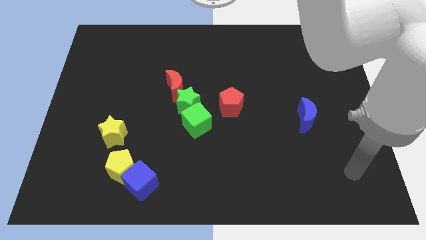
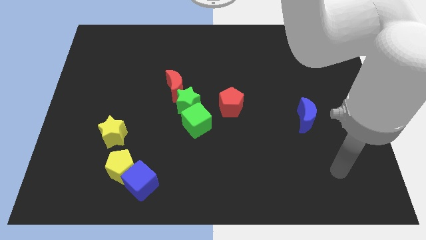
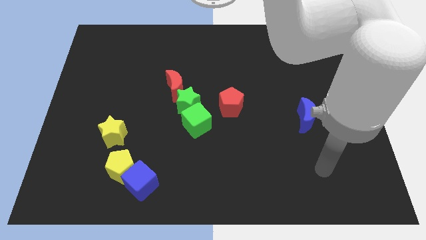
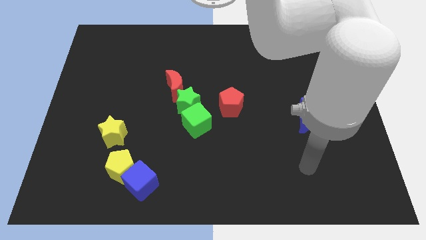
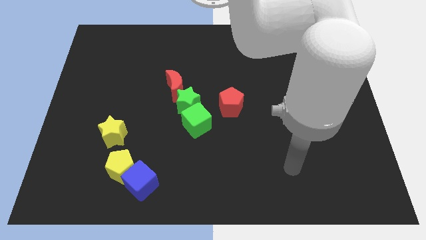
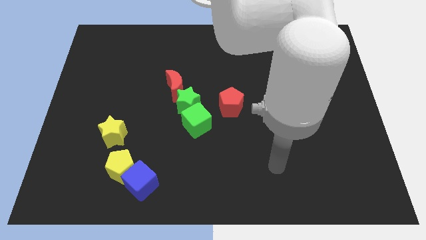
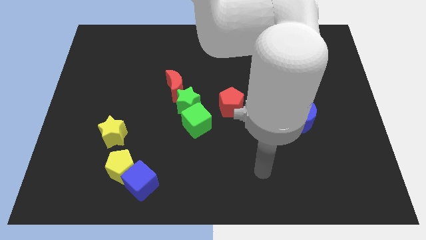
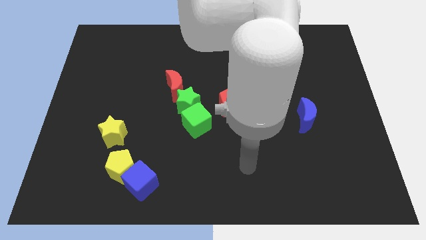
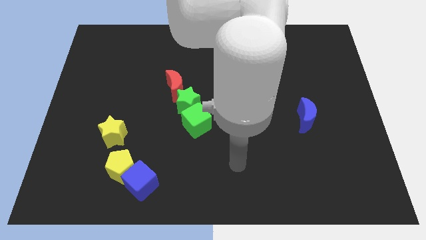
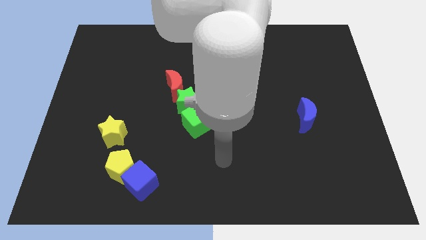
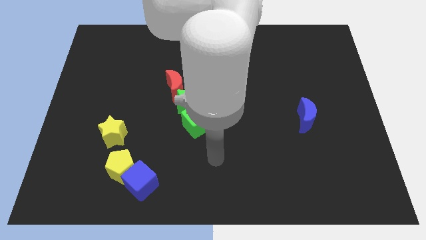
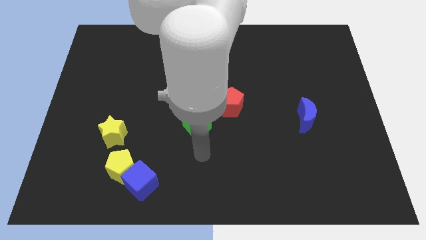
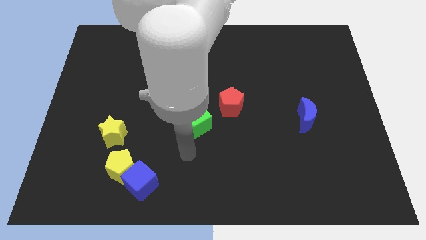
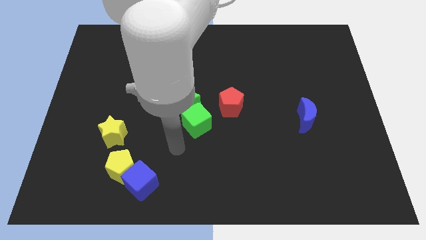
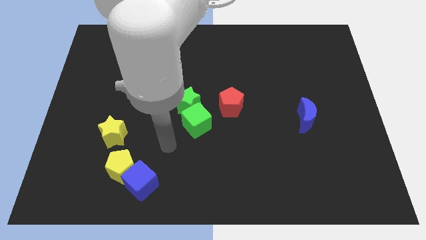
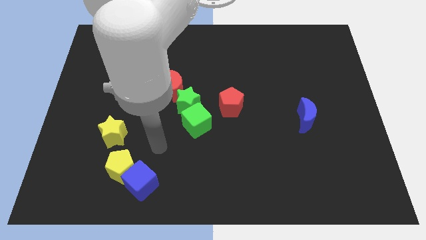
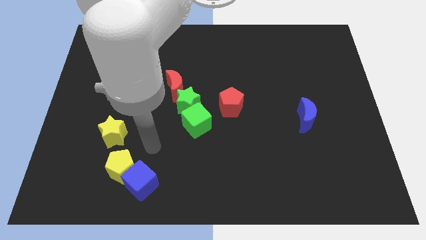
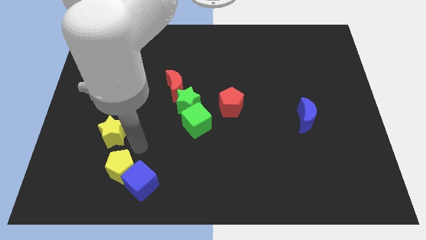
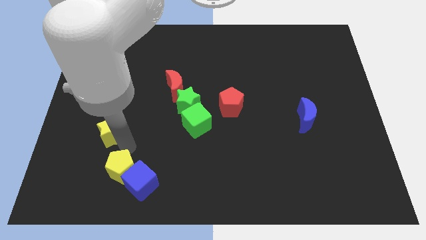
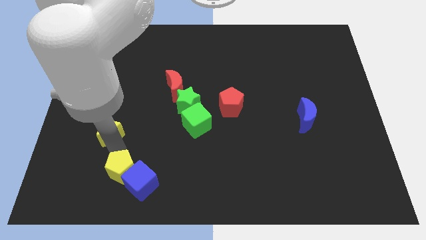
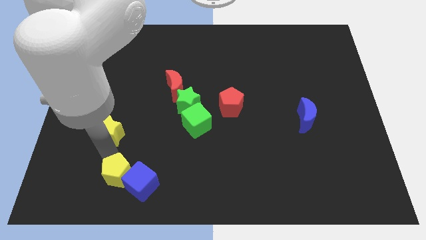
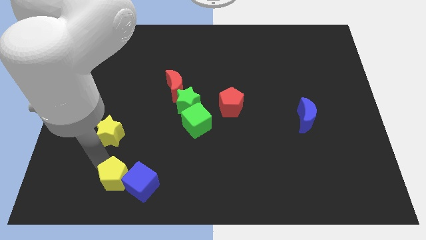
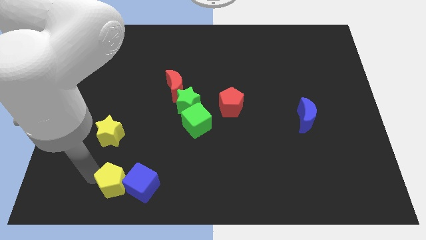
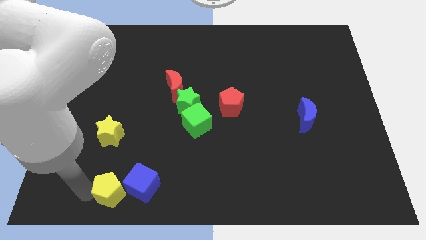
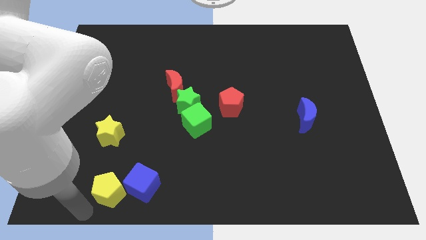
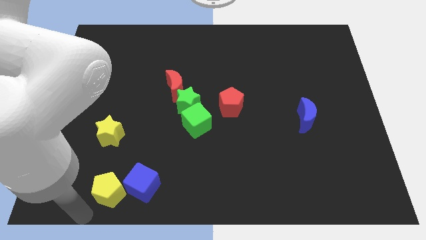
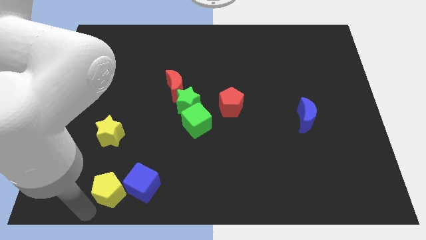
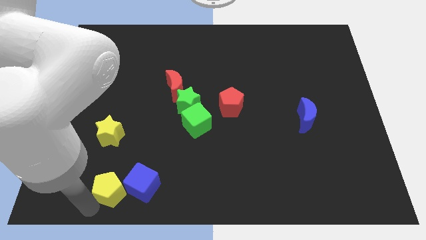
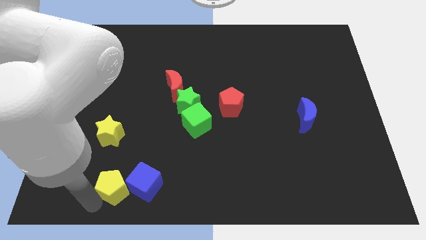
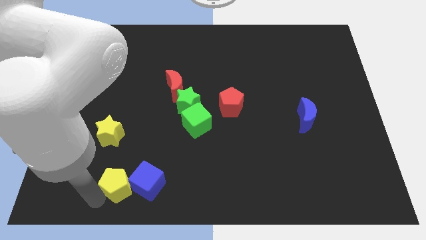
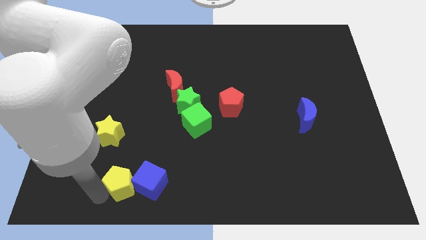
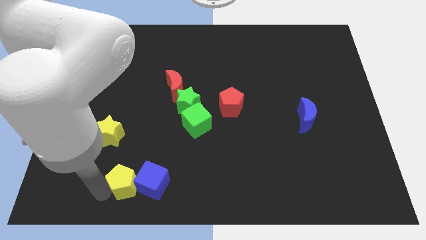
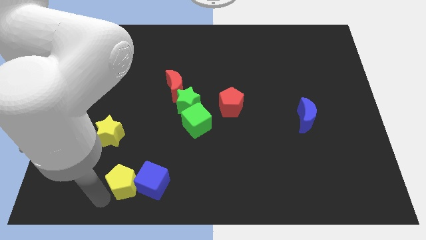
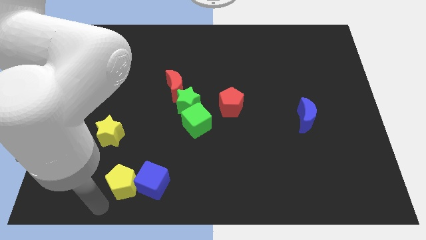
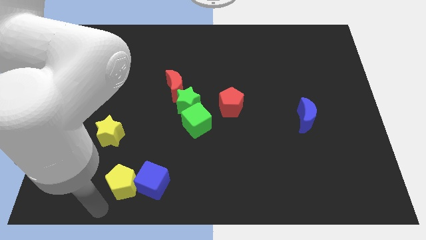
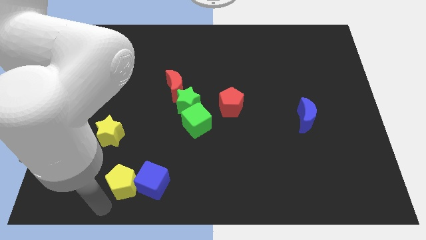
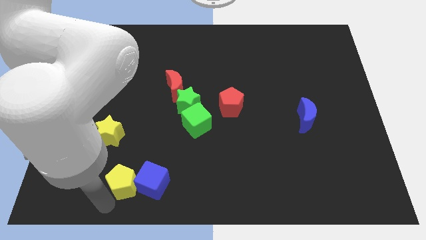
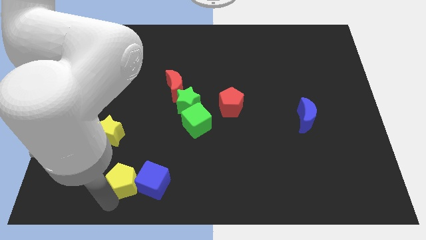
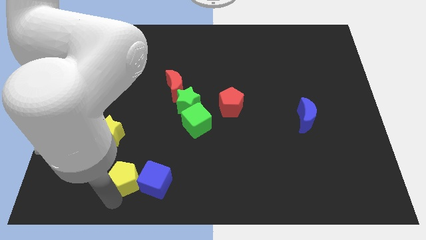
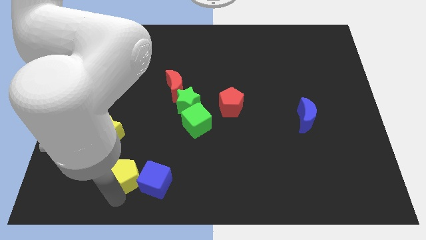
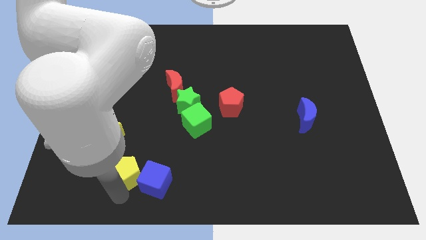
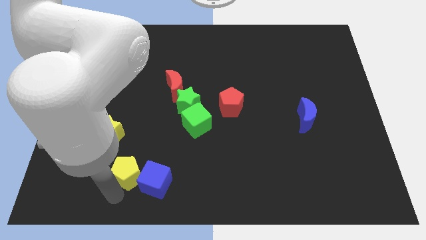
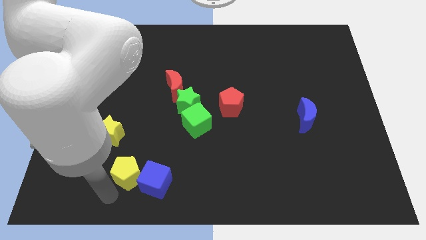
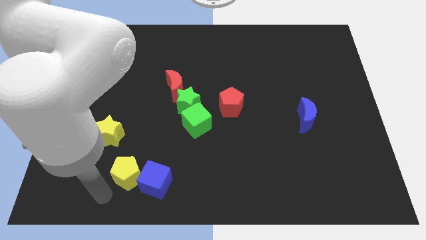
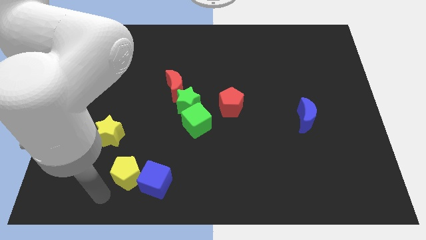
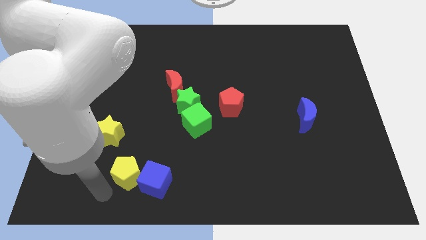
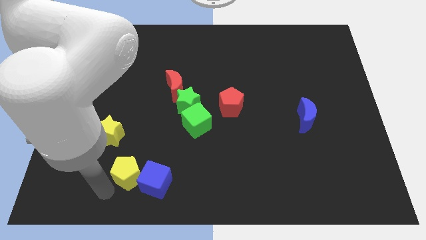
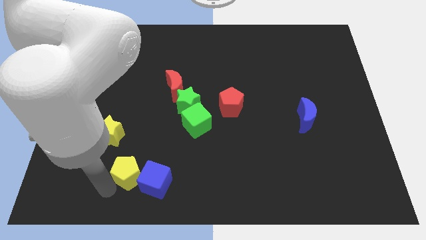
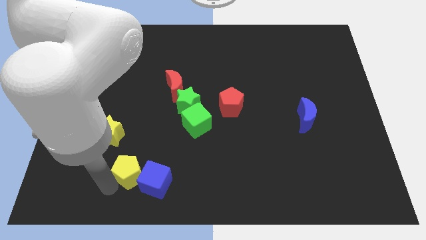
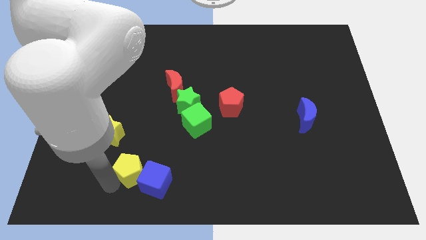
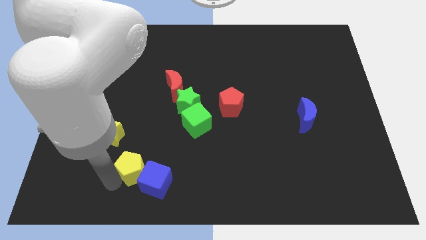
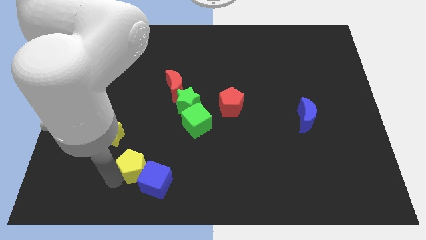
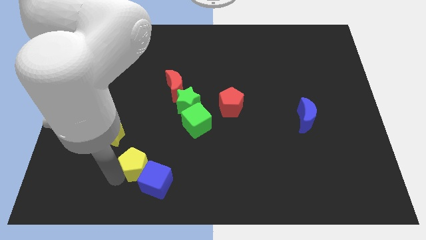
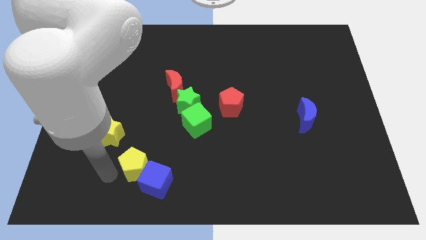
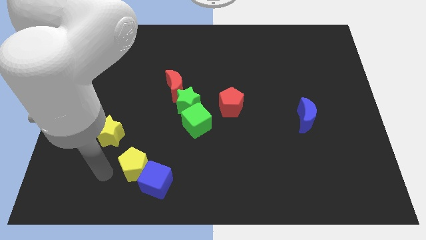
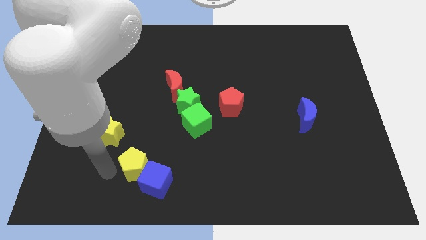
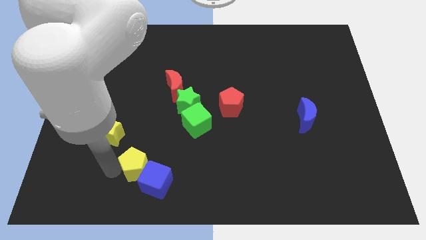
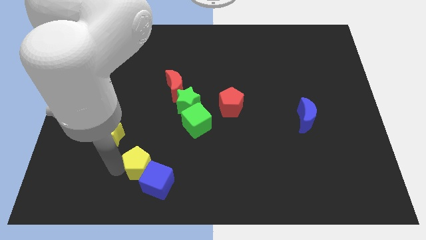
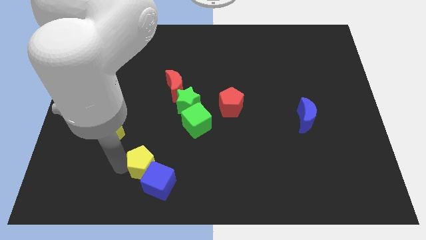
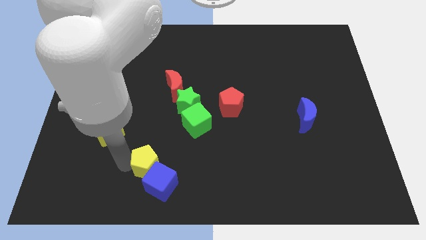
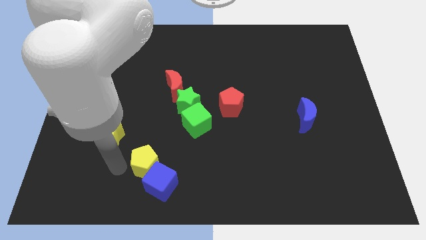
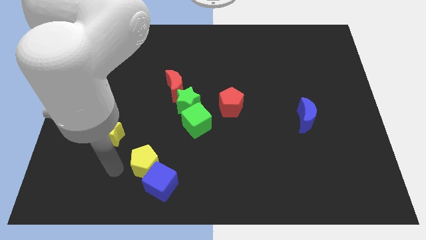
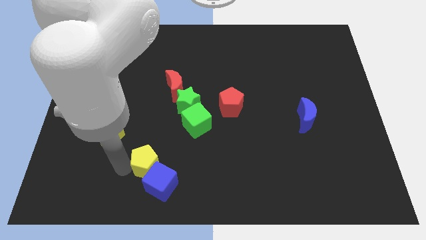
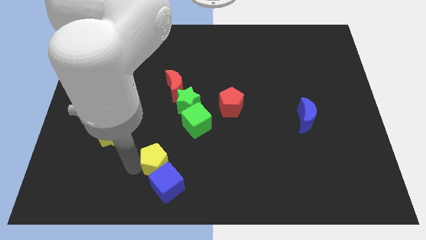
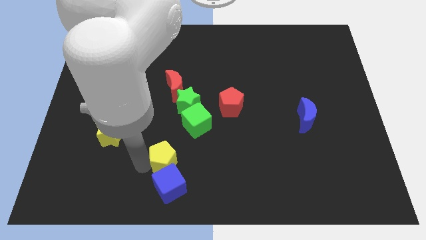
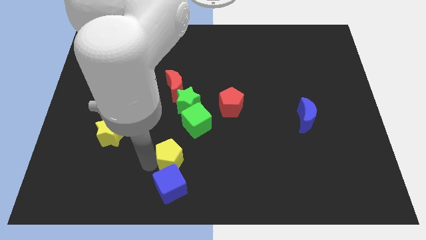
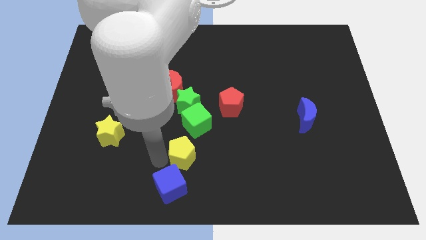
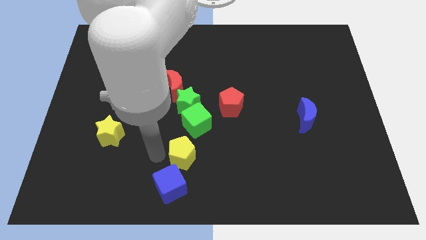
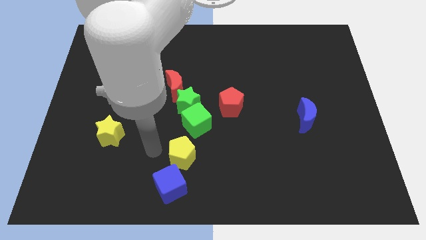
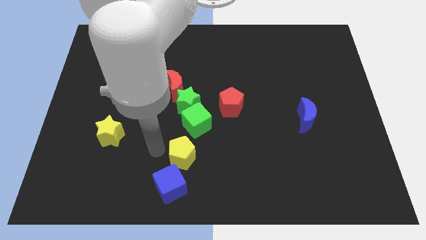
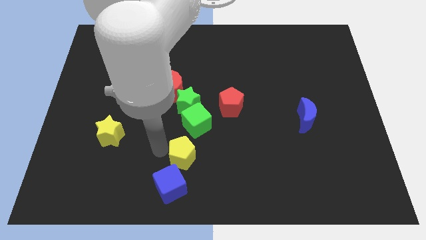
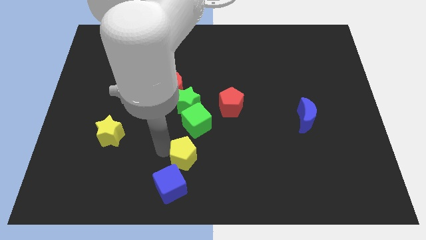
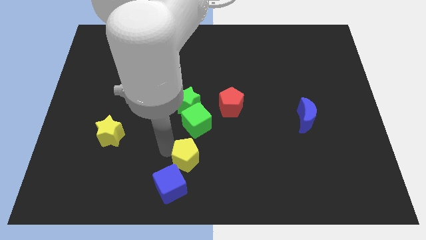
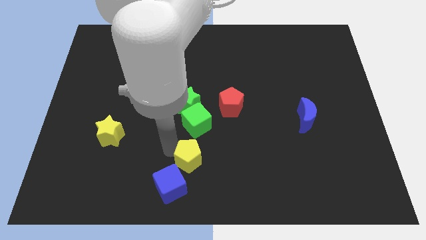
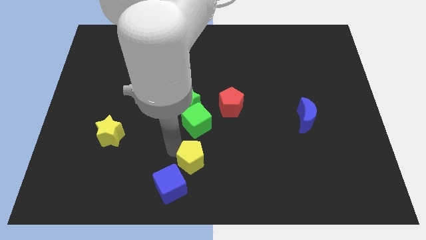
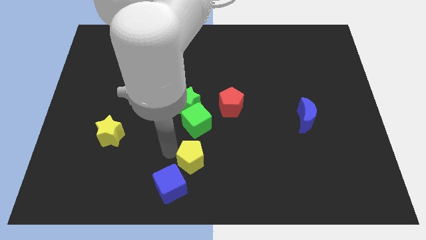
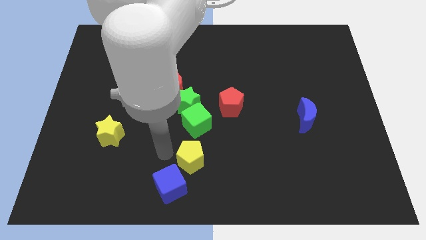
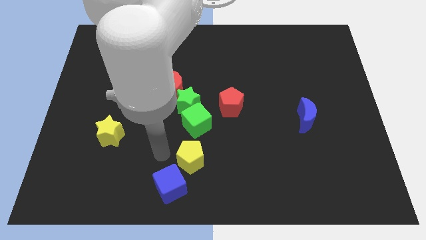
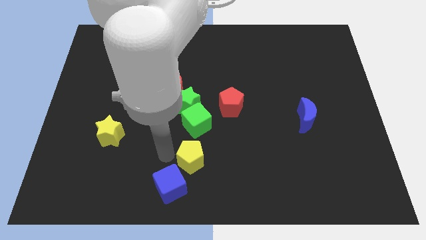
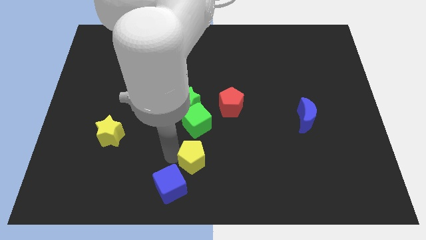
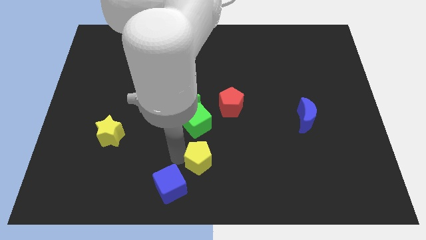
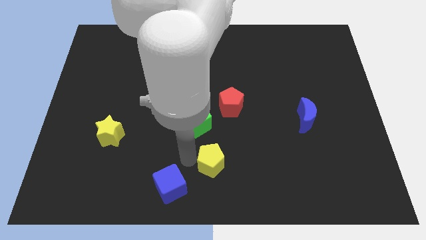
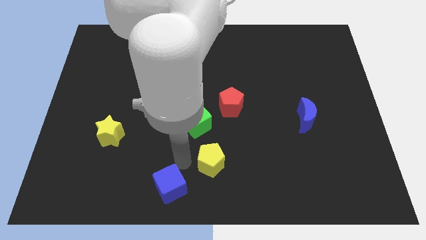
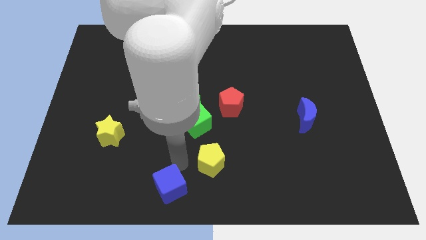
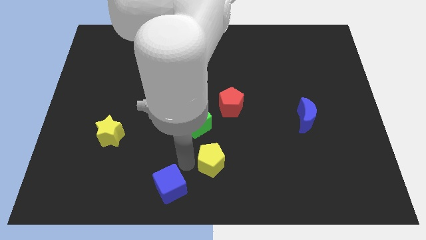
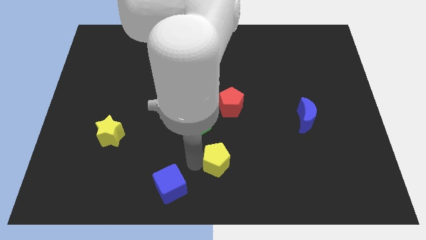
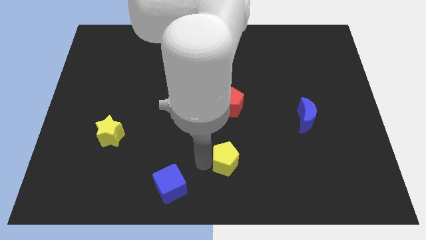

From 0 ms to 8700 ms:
slide the yellow pentagon right
